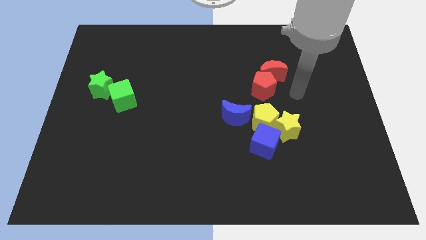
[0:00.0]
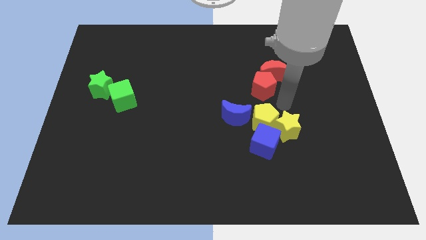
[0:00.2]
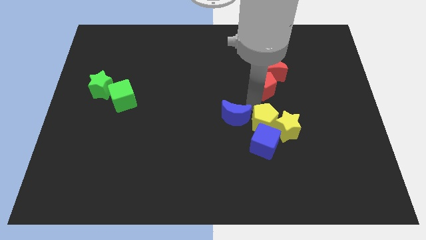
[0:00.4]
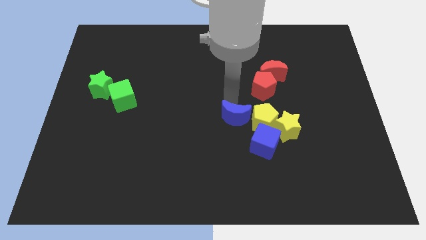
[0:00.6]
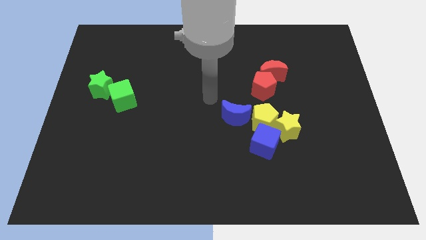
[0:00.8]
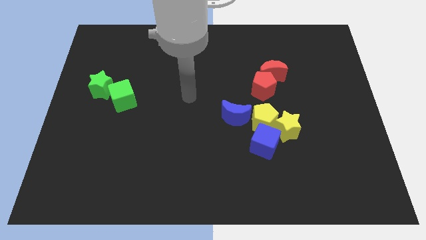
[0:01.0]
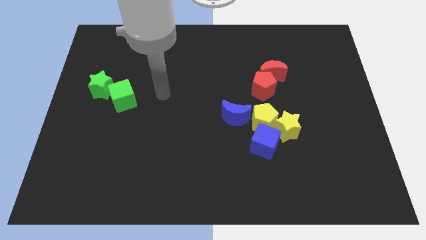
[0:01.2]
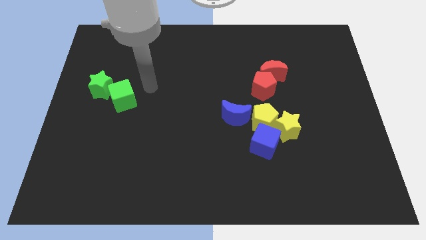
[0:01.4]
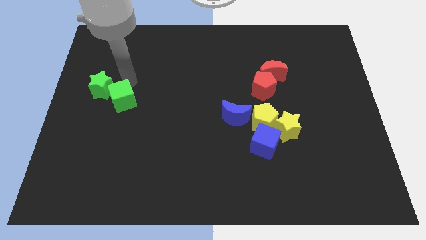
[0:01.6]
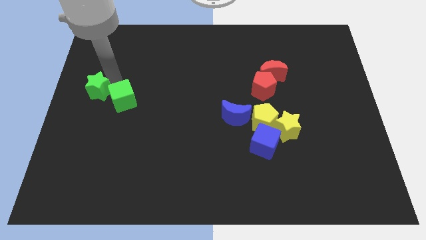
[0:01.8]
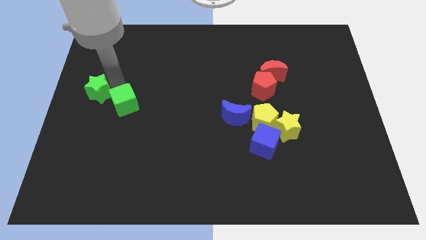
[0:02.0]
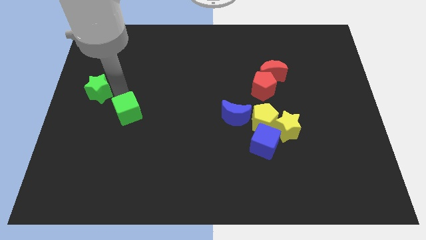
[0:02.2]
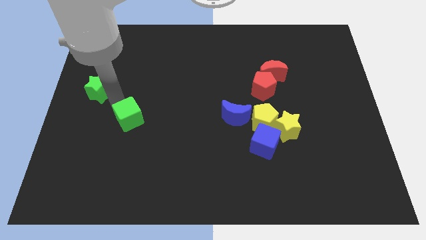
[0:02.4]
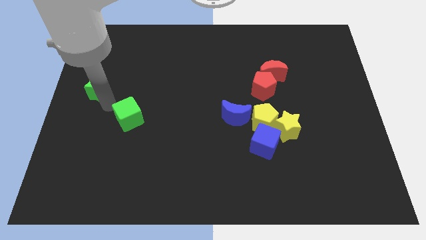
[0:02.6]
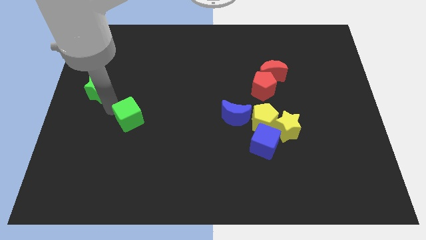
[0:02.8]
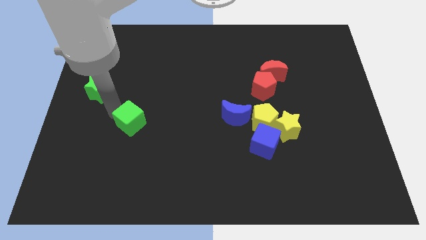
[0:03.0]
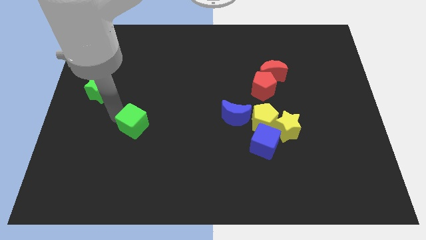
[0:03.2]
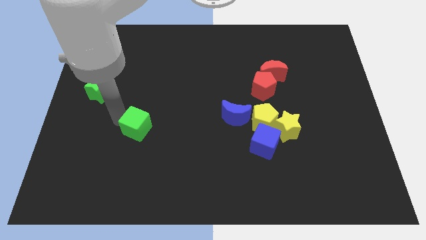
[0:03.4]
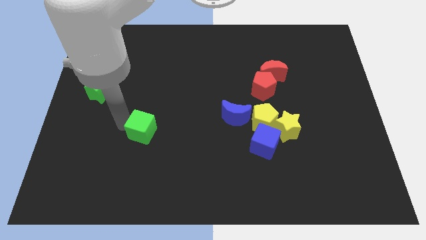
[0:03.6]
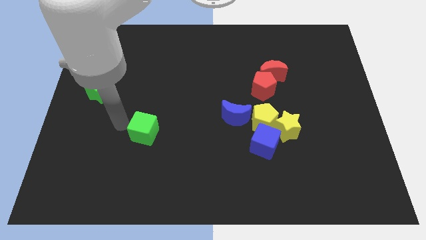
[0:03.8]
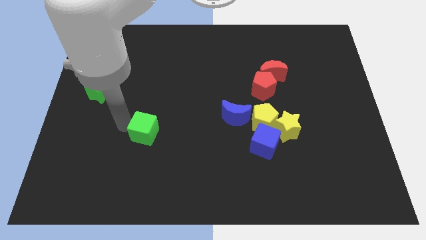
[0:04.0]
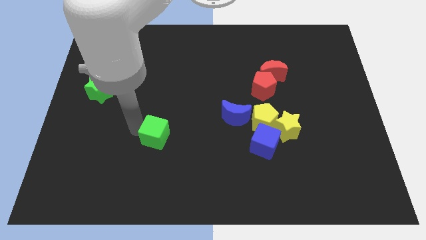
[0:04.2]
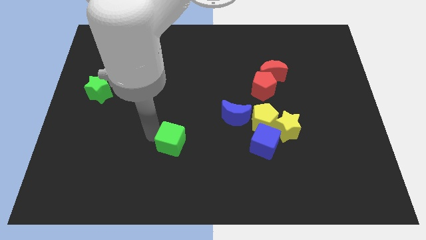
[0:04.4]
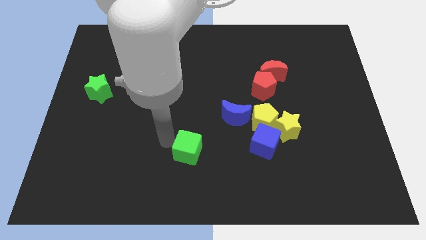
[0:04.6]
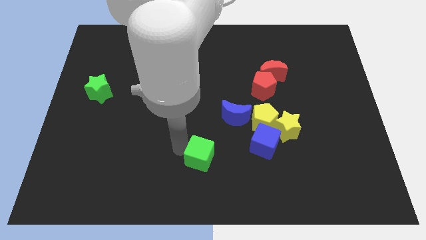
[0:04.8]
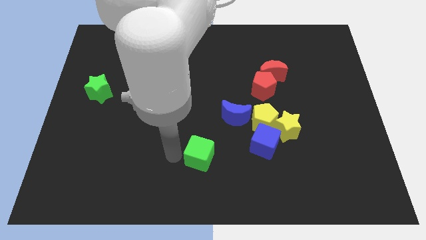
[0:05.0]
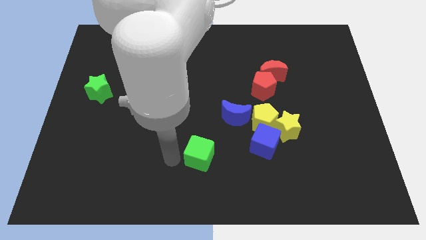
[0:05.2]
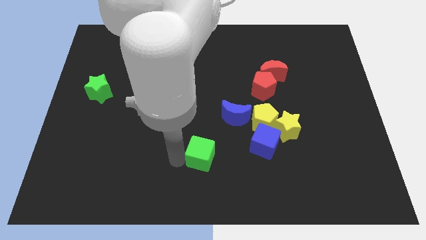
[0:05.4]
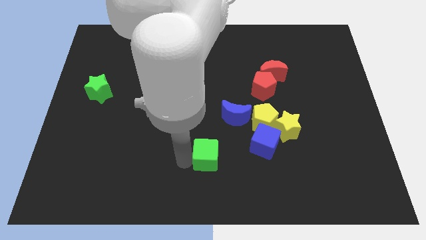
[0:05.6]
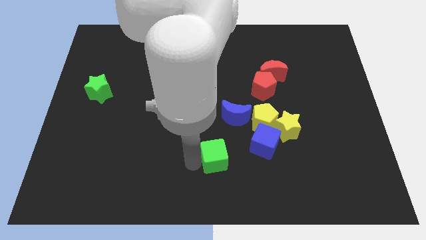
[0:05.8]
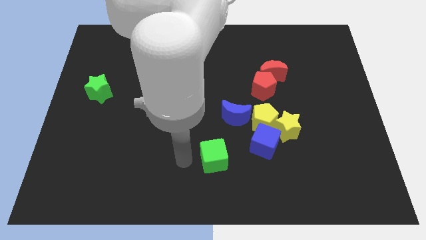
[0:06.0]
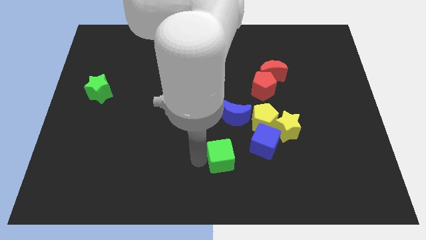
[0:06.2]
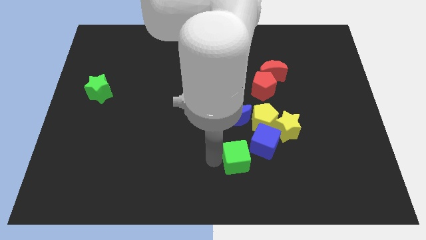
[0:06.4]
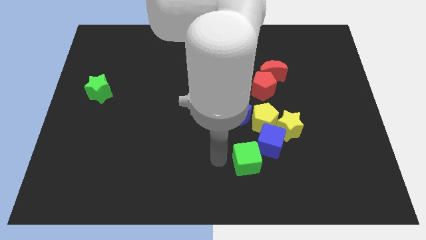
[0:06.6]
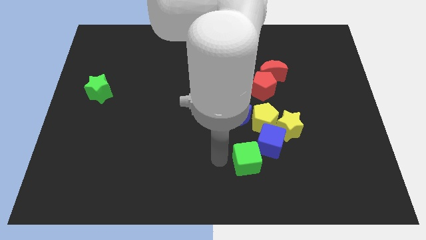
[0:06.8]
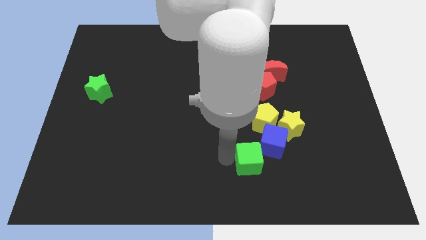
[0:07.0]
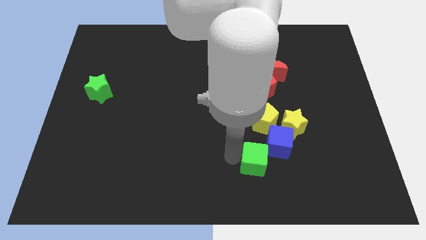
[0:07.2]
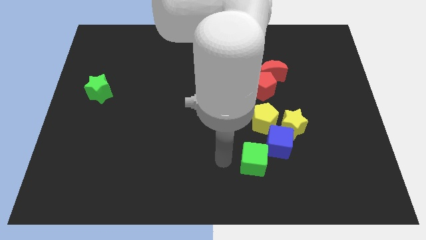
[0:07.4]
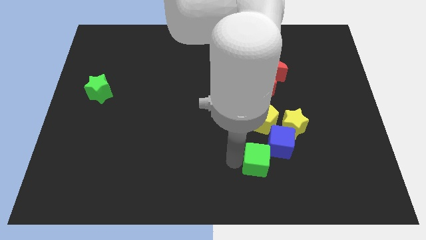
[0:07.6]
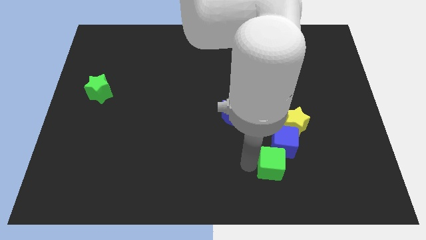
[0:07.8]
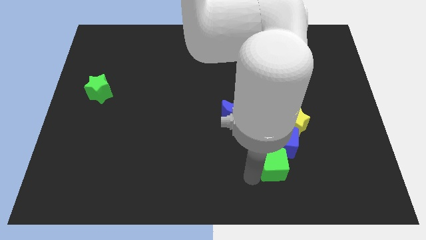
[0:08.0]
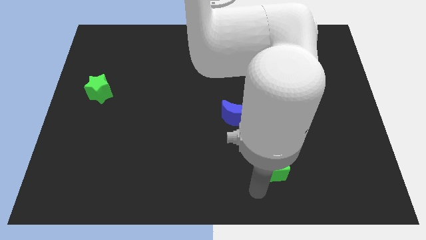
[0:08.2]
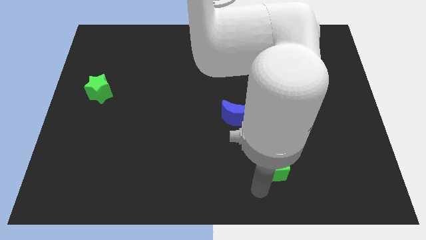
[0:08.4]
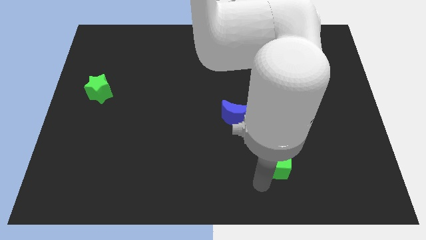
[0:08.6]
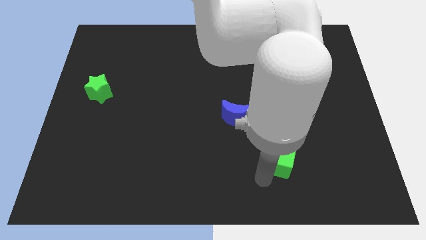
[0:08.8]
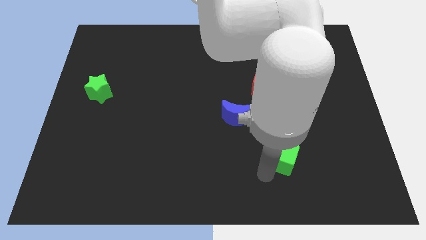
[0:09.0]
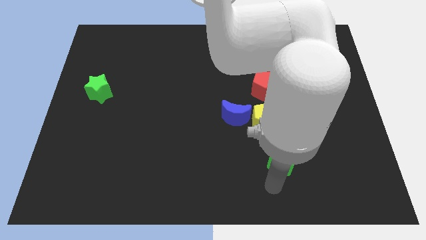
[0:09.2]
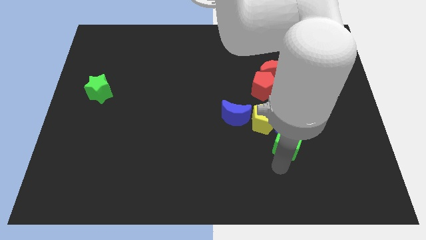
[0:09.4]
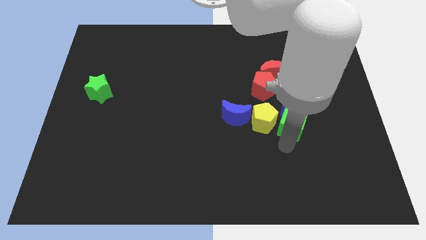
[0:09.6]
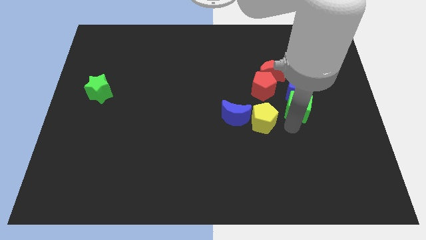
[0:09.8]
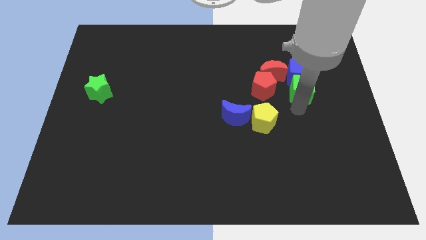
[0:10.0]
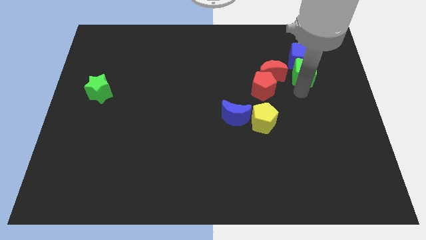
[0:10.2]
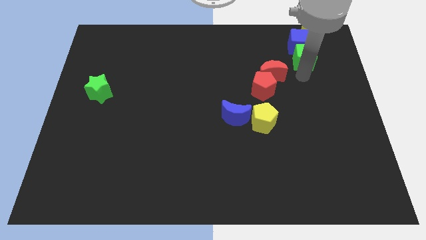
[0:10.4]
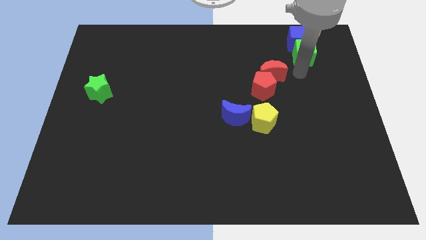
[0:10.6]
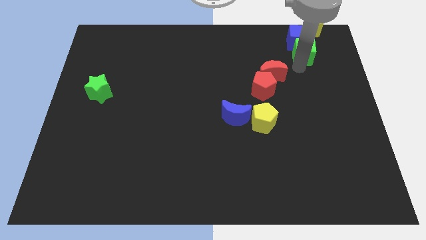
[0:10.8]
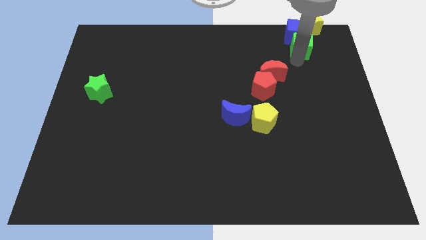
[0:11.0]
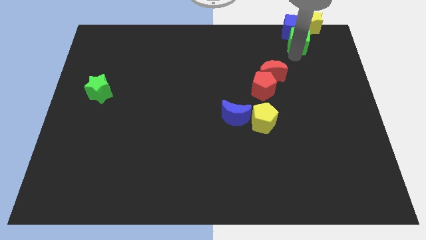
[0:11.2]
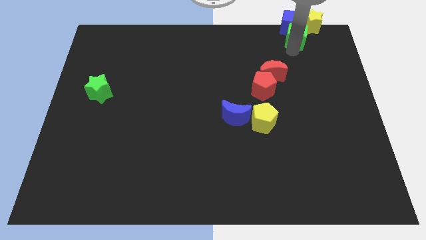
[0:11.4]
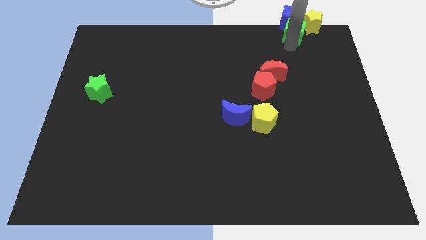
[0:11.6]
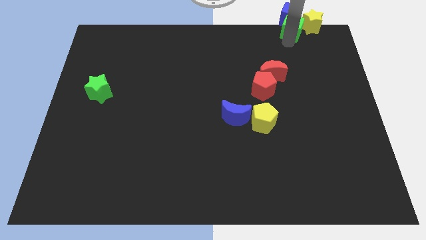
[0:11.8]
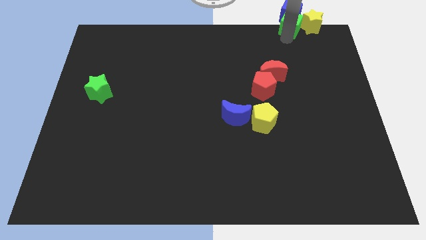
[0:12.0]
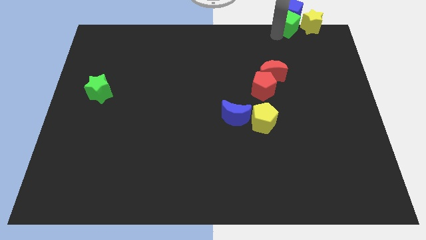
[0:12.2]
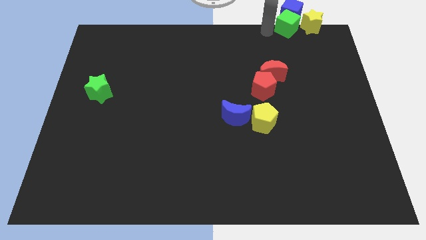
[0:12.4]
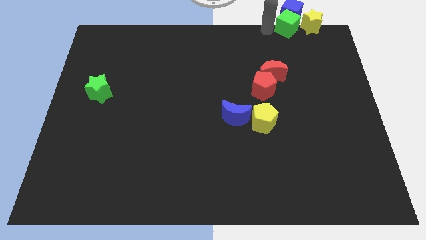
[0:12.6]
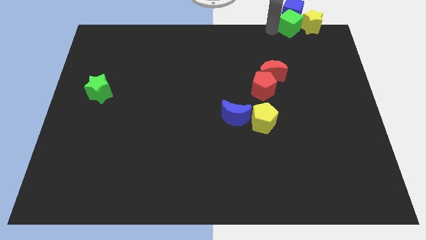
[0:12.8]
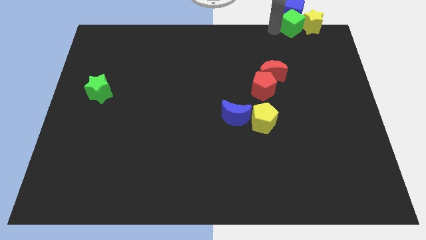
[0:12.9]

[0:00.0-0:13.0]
put the green cube towards the yellow star

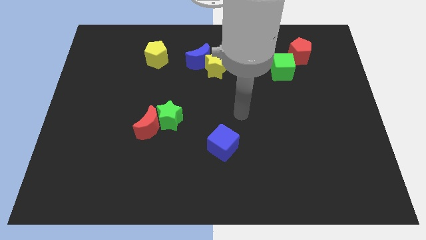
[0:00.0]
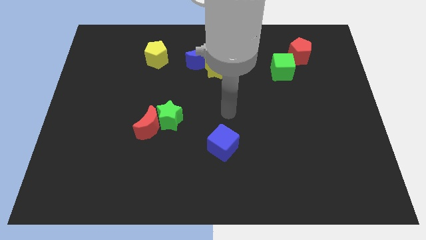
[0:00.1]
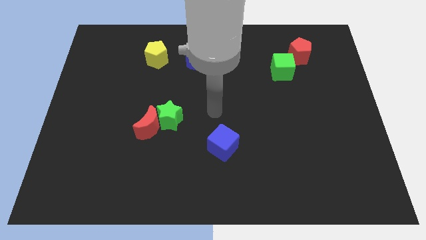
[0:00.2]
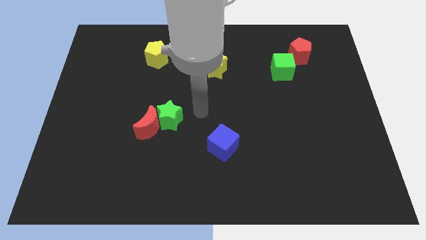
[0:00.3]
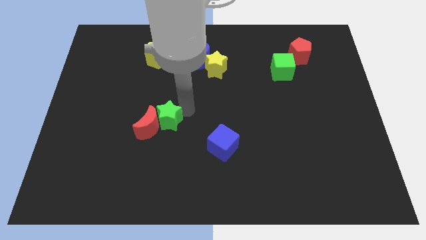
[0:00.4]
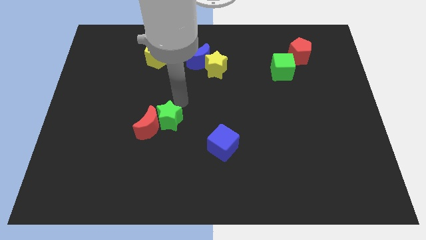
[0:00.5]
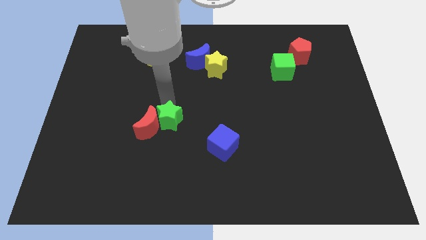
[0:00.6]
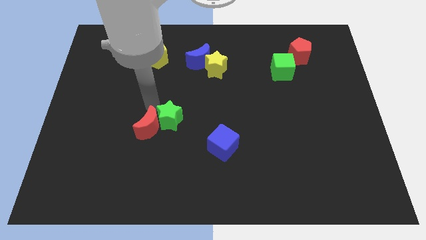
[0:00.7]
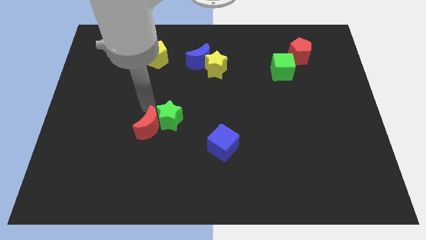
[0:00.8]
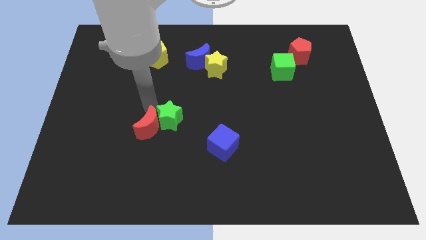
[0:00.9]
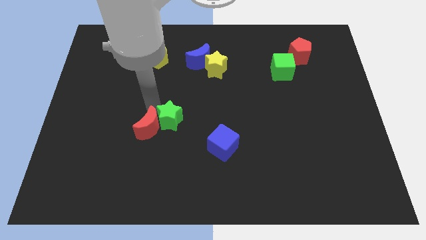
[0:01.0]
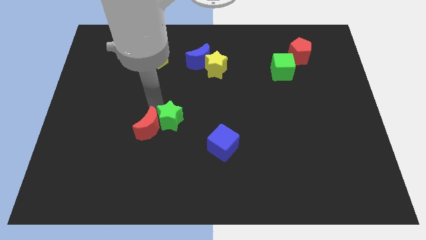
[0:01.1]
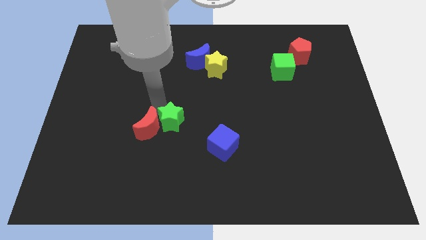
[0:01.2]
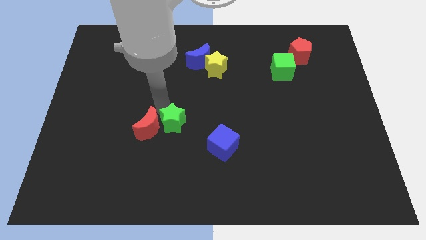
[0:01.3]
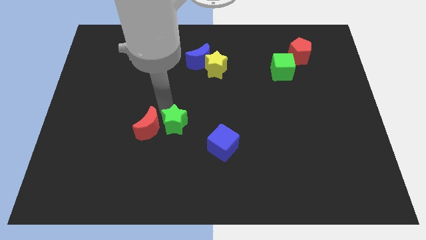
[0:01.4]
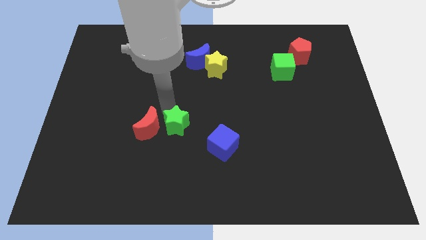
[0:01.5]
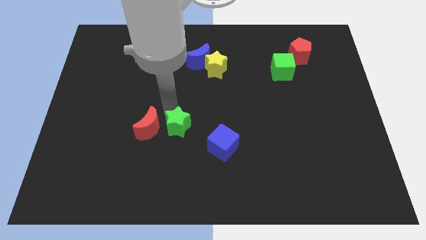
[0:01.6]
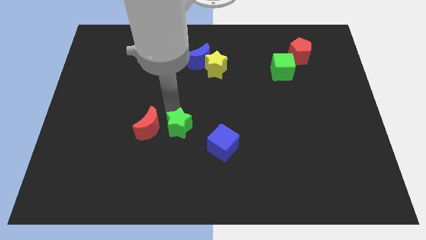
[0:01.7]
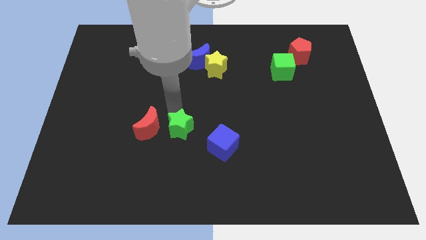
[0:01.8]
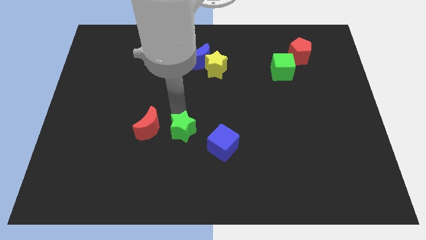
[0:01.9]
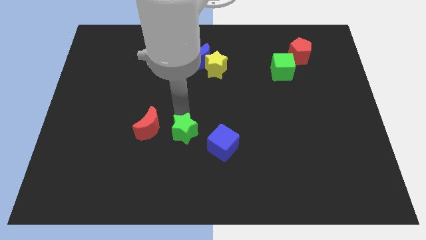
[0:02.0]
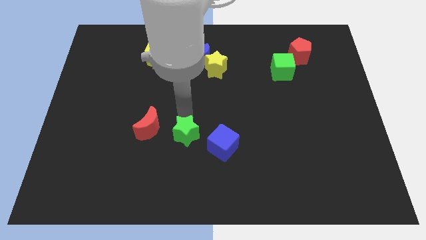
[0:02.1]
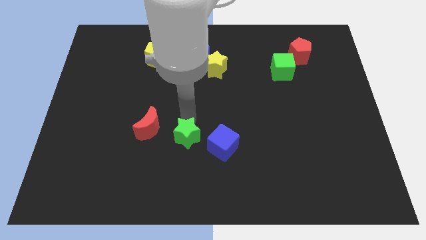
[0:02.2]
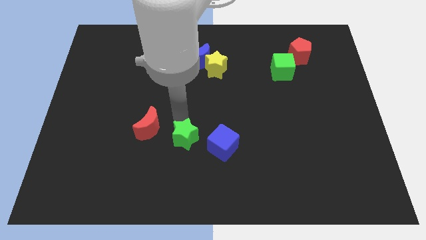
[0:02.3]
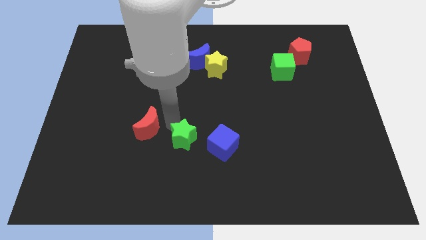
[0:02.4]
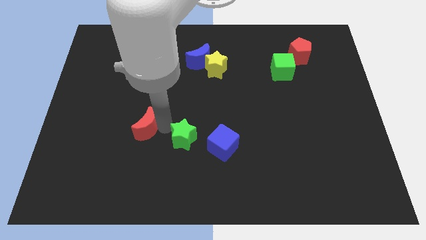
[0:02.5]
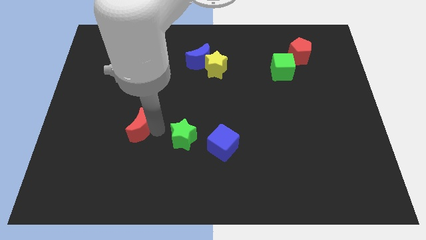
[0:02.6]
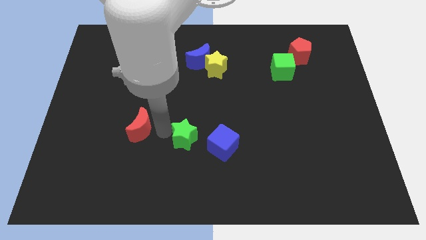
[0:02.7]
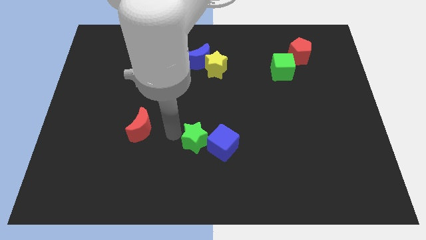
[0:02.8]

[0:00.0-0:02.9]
push the green star close to the blue cube
